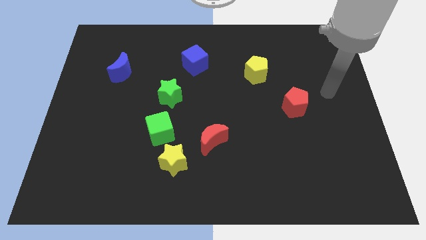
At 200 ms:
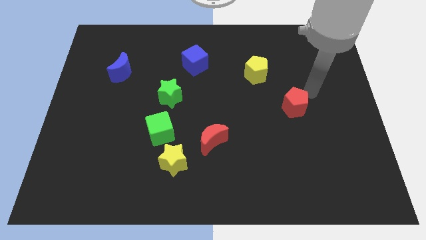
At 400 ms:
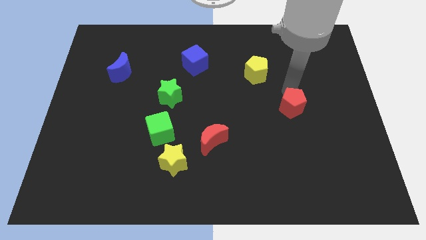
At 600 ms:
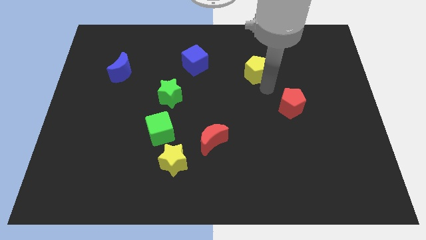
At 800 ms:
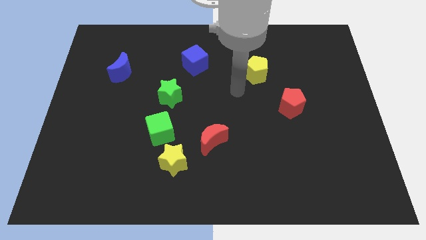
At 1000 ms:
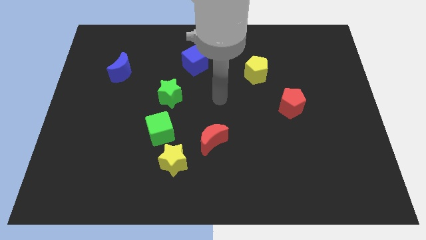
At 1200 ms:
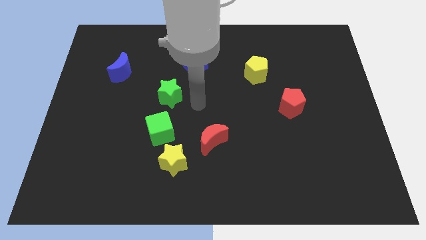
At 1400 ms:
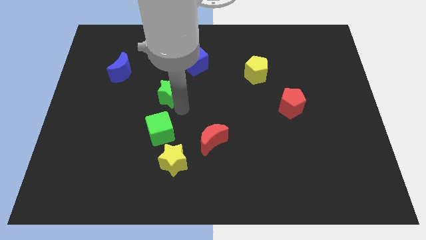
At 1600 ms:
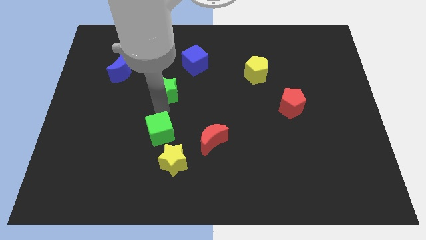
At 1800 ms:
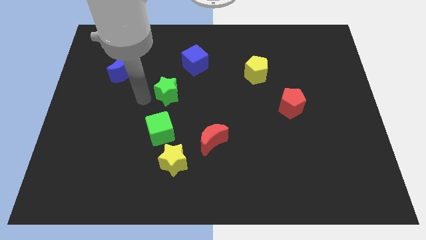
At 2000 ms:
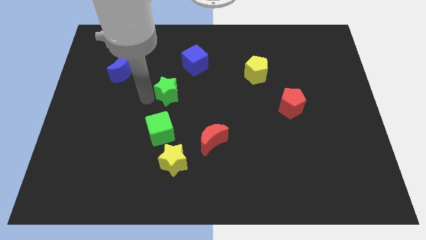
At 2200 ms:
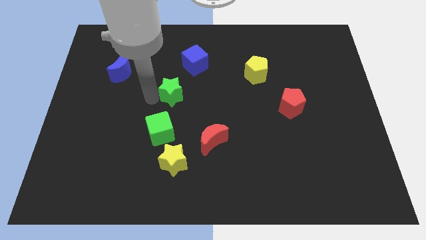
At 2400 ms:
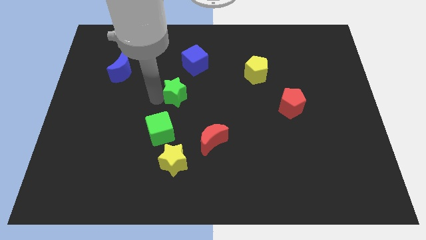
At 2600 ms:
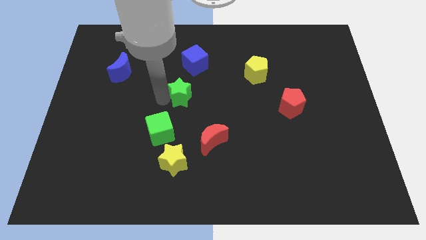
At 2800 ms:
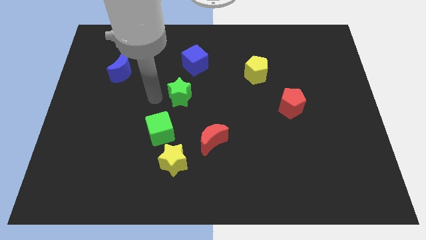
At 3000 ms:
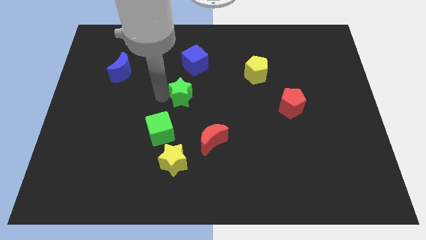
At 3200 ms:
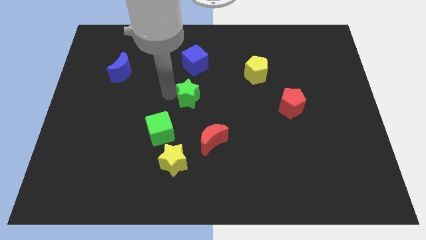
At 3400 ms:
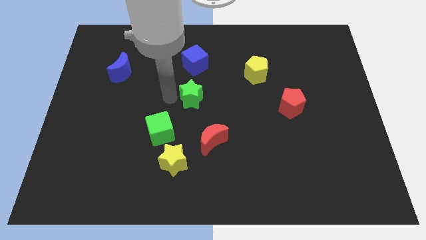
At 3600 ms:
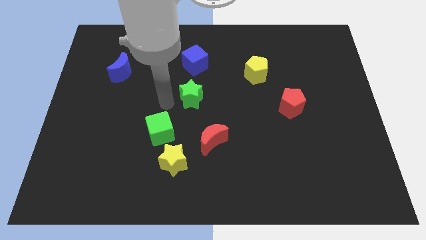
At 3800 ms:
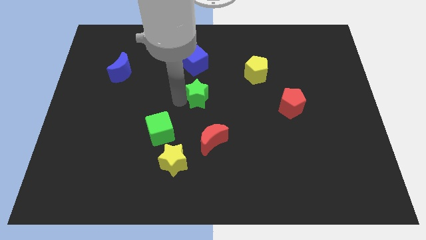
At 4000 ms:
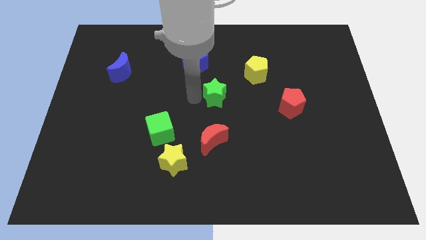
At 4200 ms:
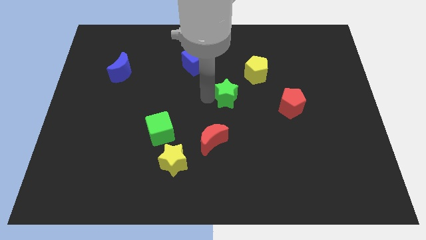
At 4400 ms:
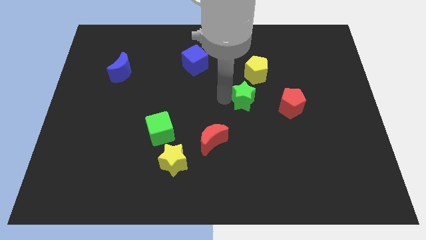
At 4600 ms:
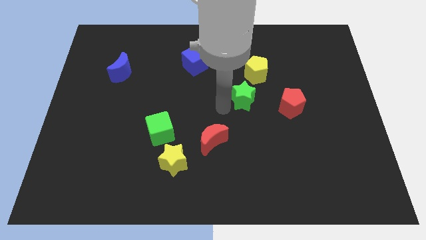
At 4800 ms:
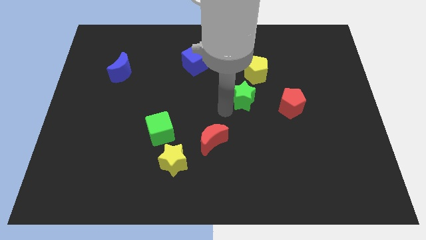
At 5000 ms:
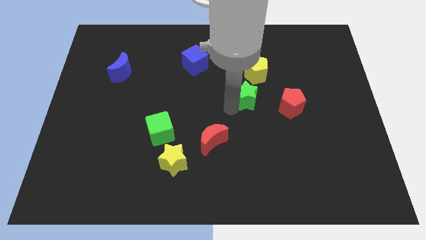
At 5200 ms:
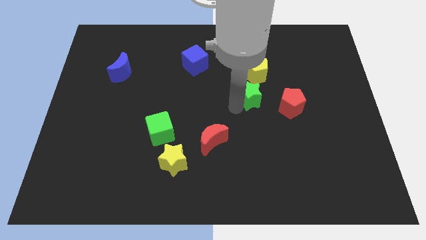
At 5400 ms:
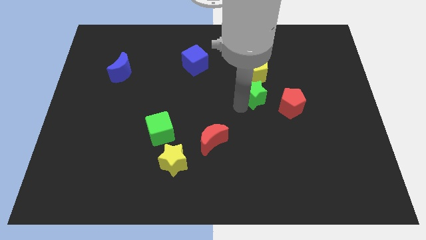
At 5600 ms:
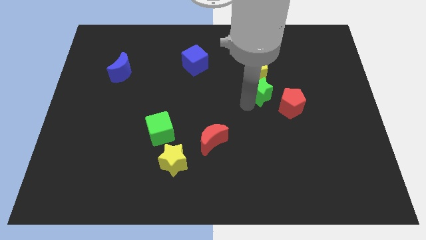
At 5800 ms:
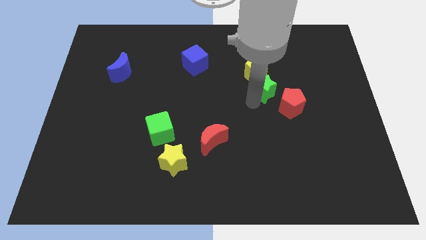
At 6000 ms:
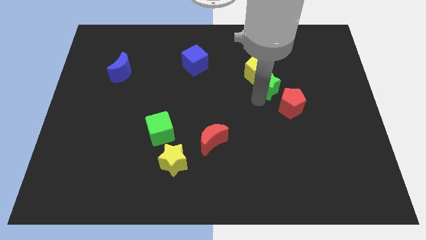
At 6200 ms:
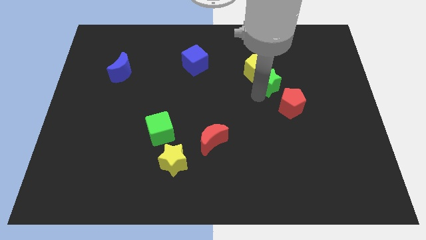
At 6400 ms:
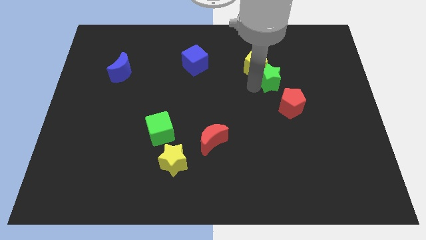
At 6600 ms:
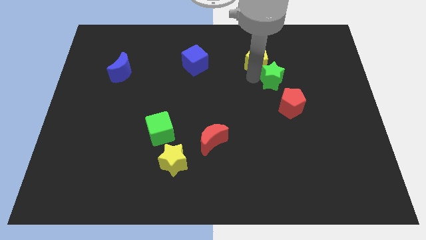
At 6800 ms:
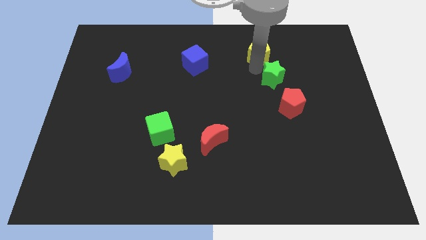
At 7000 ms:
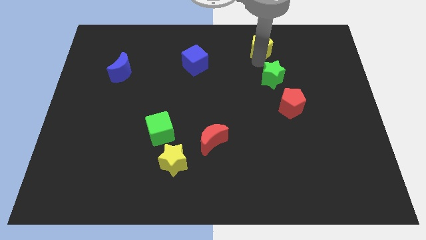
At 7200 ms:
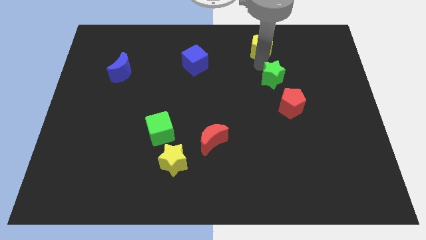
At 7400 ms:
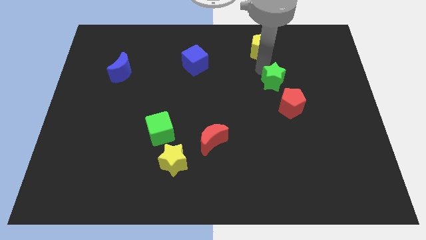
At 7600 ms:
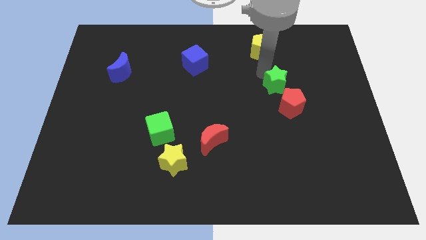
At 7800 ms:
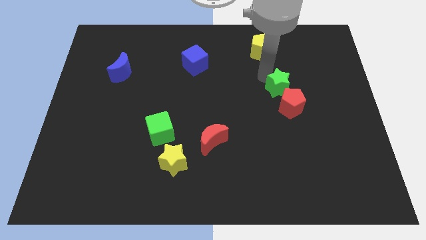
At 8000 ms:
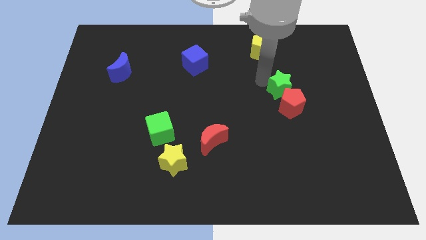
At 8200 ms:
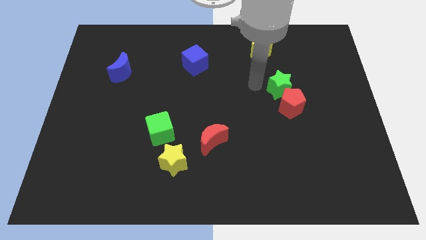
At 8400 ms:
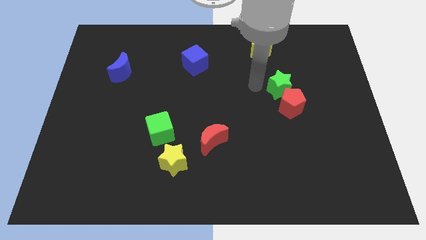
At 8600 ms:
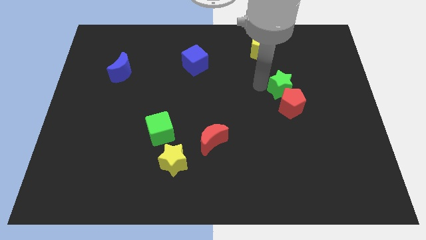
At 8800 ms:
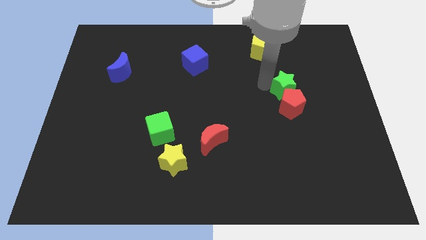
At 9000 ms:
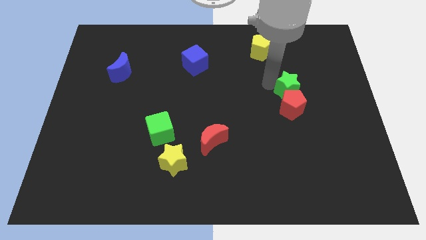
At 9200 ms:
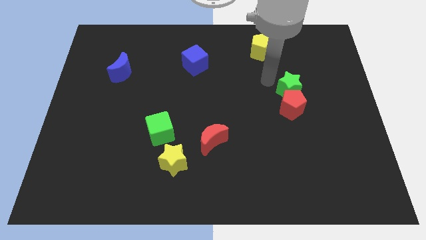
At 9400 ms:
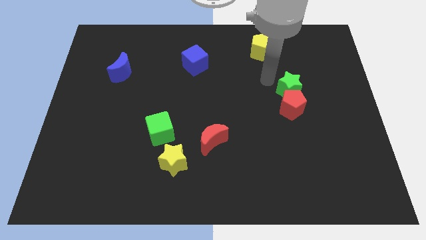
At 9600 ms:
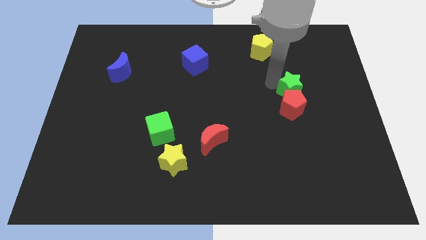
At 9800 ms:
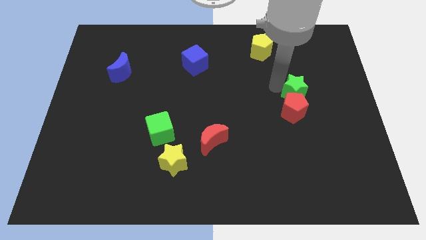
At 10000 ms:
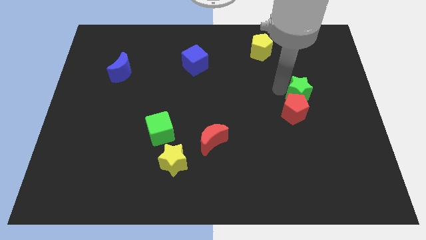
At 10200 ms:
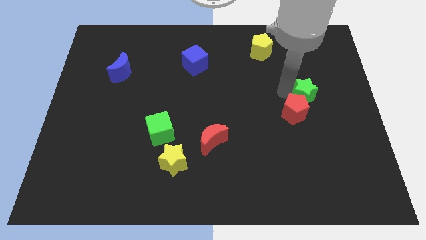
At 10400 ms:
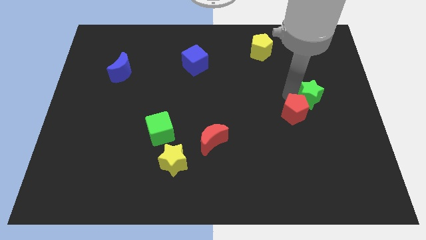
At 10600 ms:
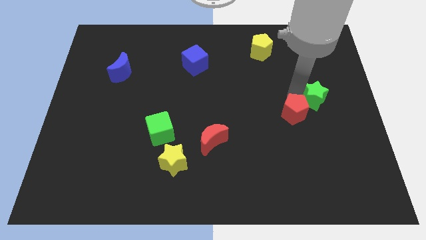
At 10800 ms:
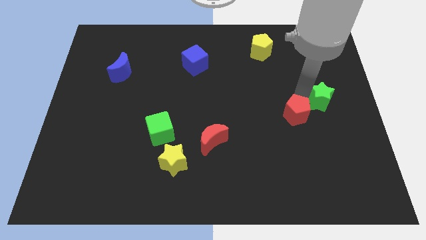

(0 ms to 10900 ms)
put the green star to the center right

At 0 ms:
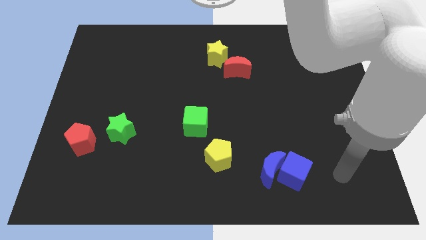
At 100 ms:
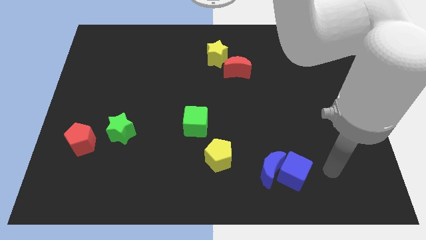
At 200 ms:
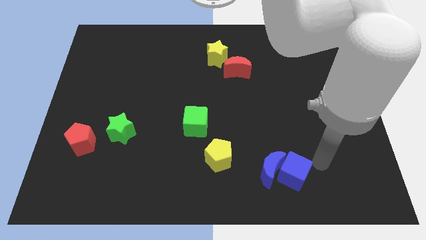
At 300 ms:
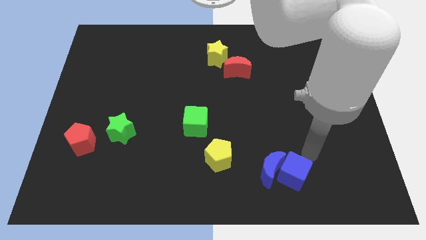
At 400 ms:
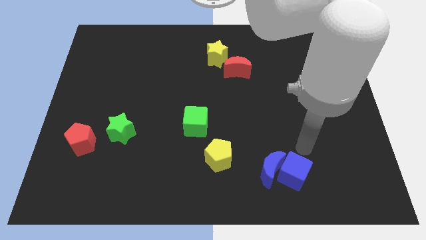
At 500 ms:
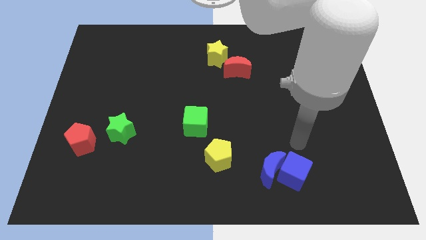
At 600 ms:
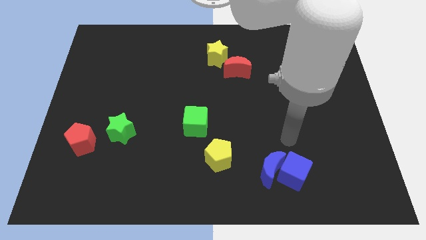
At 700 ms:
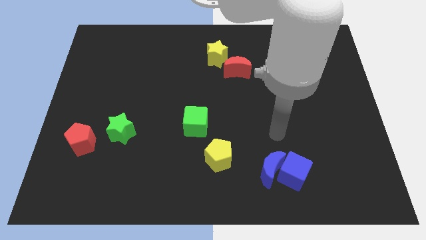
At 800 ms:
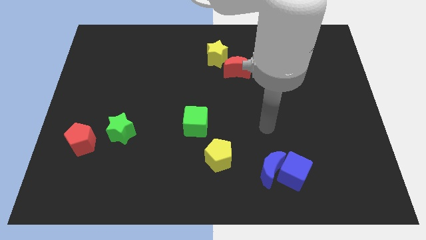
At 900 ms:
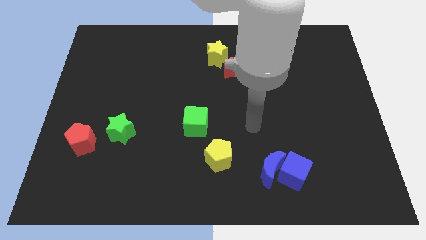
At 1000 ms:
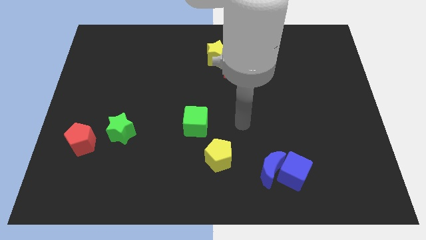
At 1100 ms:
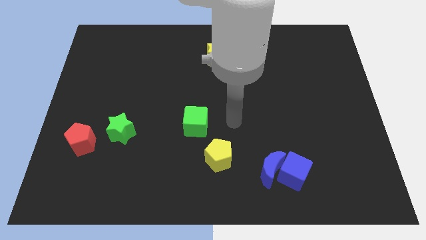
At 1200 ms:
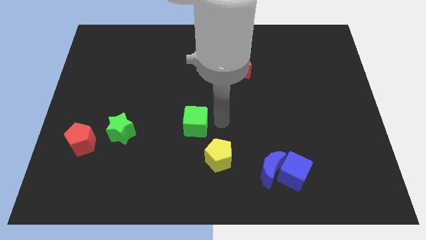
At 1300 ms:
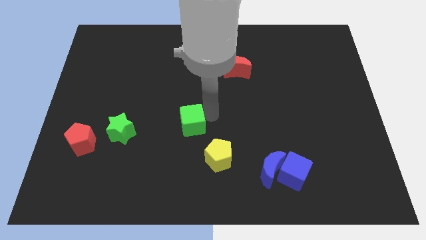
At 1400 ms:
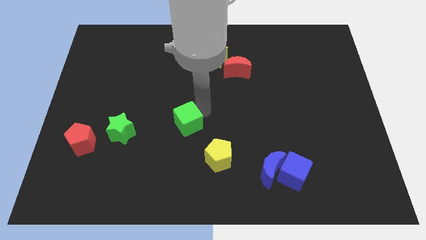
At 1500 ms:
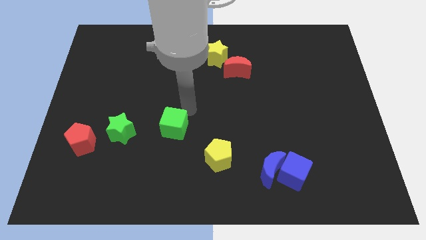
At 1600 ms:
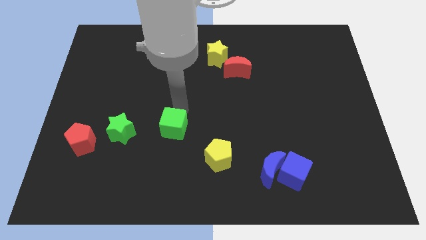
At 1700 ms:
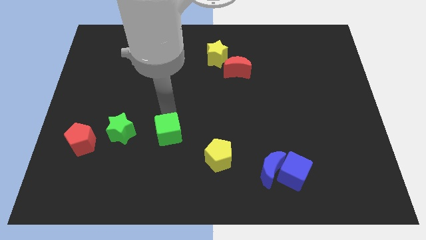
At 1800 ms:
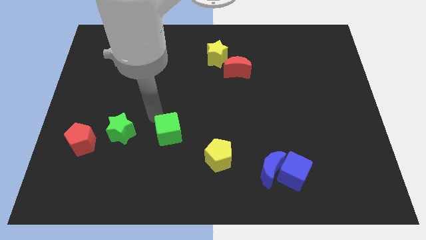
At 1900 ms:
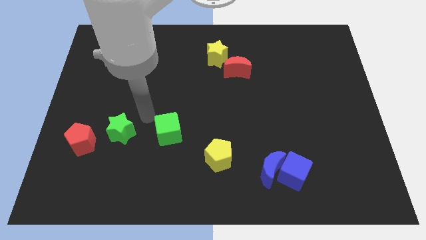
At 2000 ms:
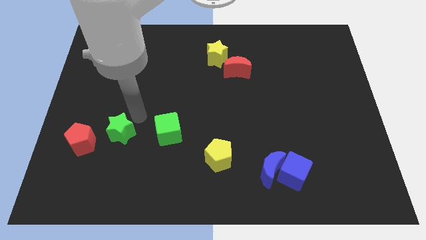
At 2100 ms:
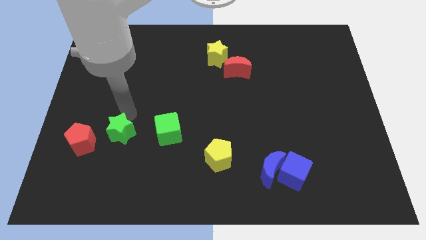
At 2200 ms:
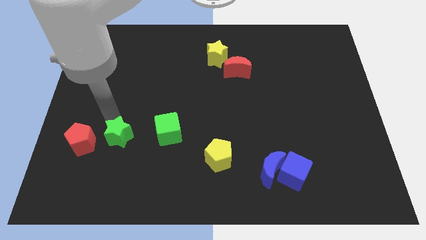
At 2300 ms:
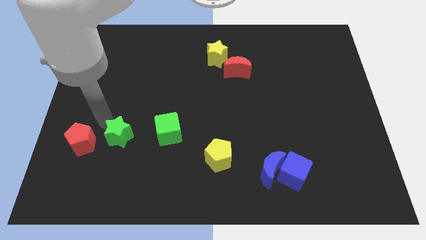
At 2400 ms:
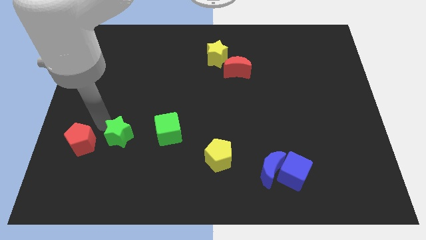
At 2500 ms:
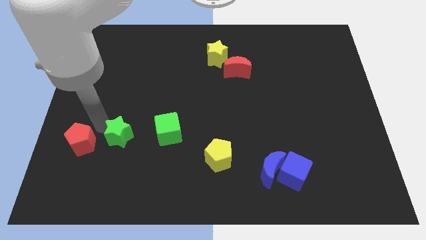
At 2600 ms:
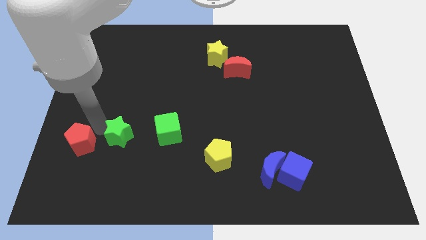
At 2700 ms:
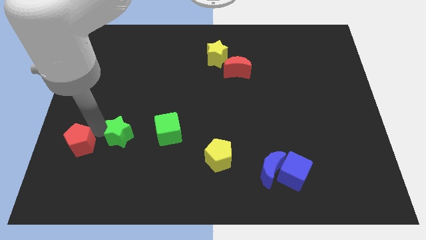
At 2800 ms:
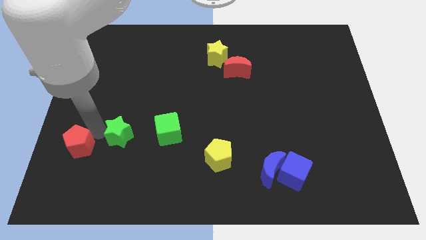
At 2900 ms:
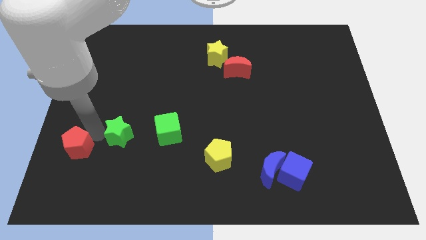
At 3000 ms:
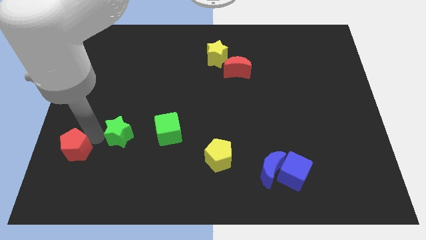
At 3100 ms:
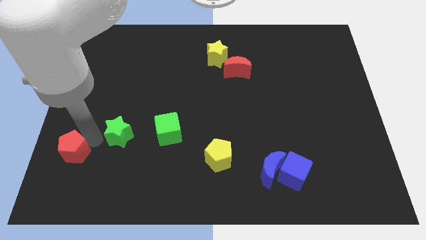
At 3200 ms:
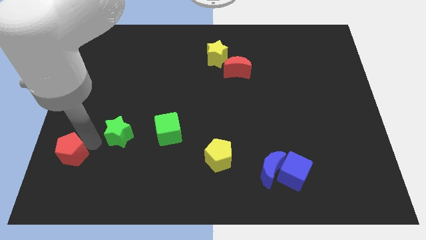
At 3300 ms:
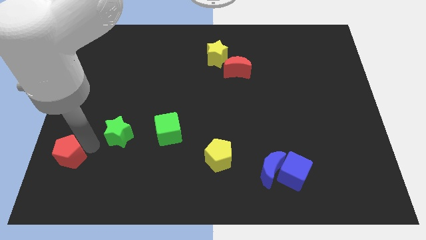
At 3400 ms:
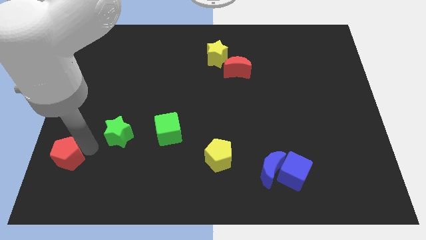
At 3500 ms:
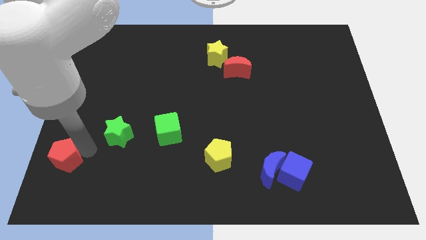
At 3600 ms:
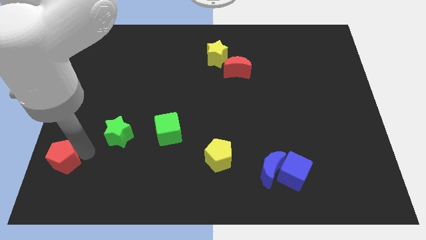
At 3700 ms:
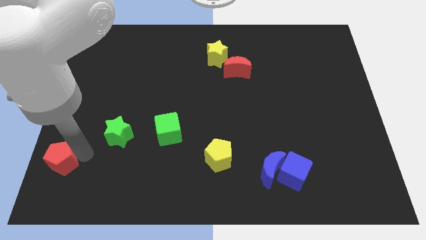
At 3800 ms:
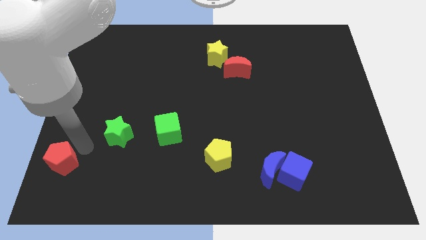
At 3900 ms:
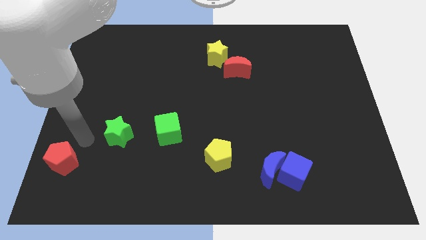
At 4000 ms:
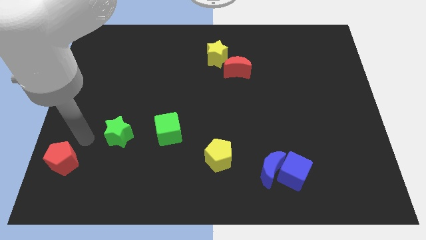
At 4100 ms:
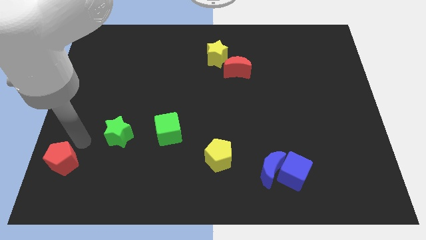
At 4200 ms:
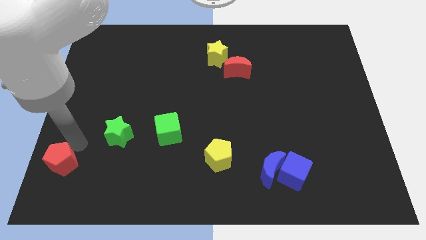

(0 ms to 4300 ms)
move the red pentagon to the lower left corner
